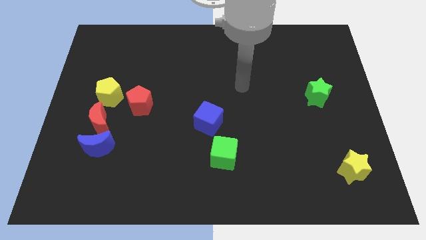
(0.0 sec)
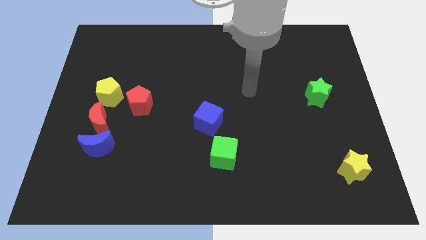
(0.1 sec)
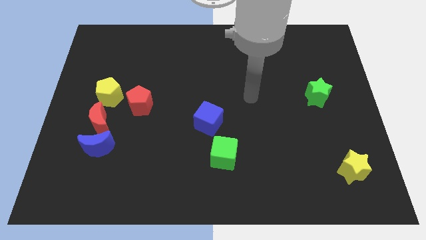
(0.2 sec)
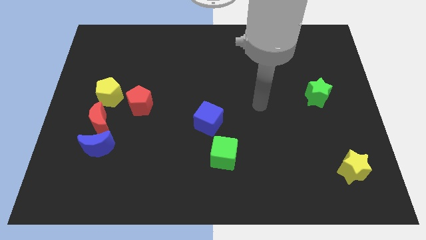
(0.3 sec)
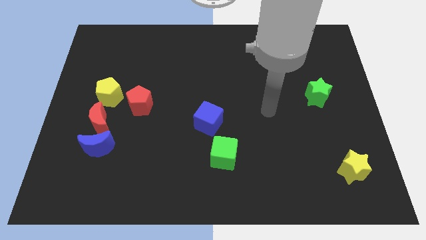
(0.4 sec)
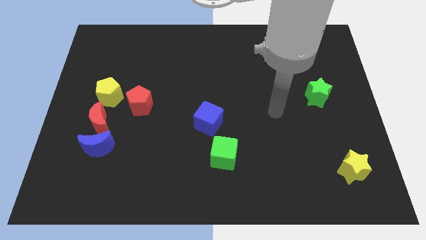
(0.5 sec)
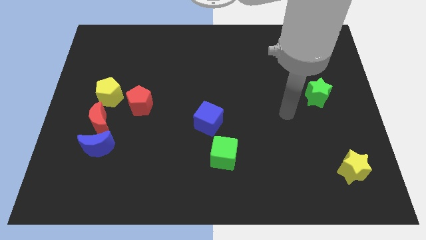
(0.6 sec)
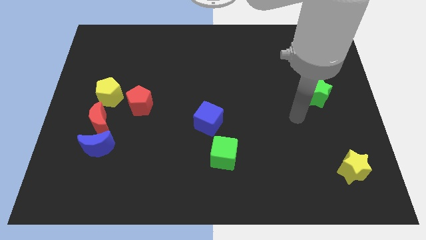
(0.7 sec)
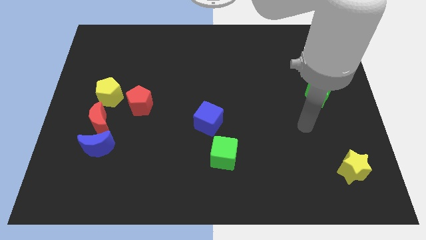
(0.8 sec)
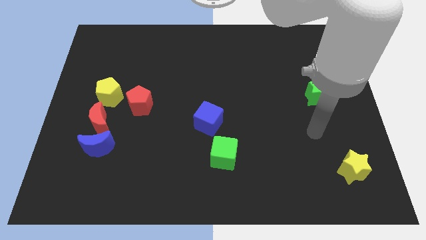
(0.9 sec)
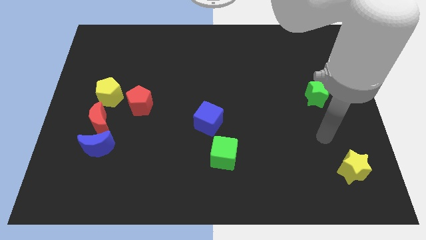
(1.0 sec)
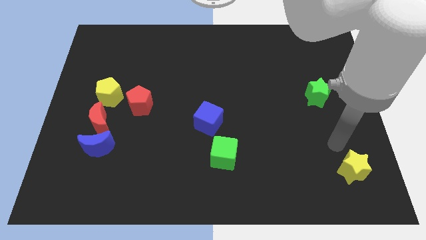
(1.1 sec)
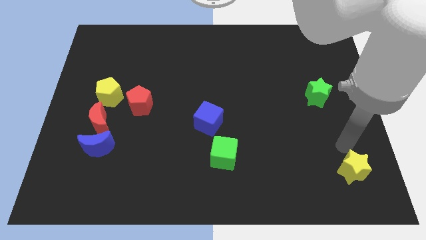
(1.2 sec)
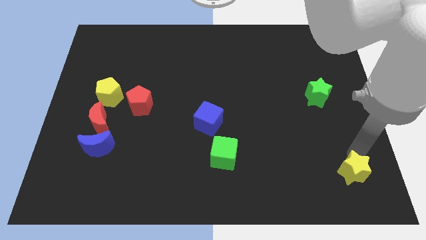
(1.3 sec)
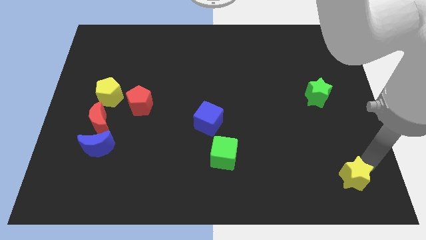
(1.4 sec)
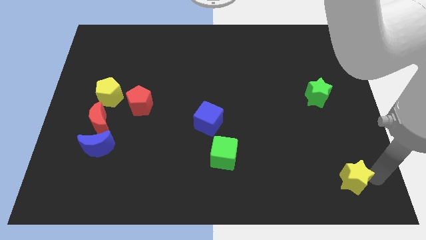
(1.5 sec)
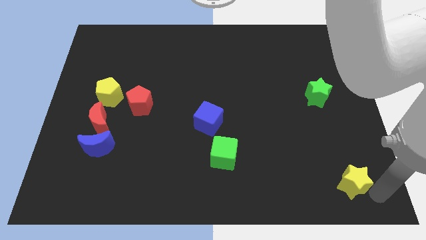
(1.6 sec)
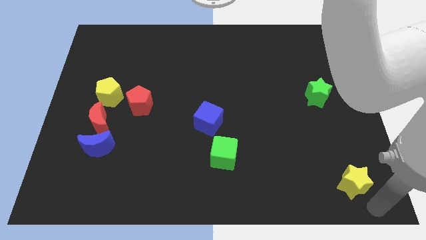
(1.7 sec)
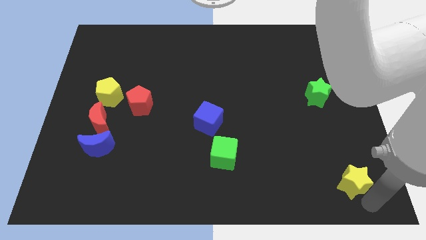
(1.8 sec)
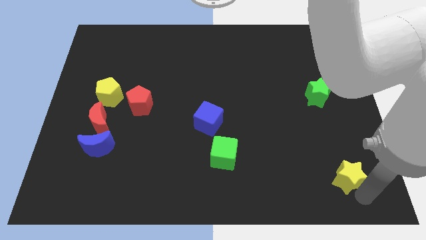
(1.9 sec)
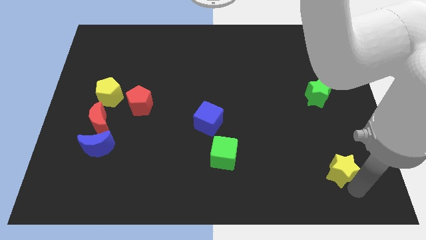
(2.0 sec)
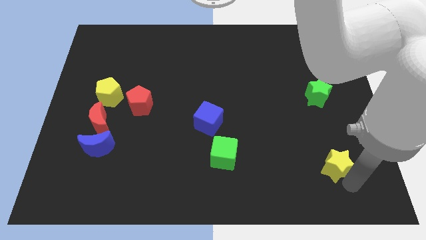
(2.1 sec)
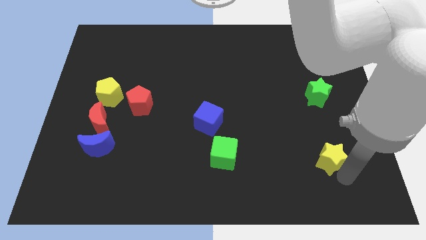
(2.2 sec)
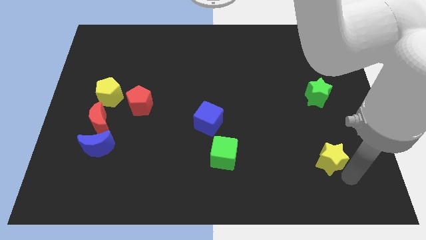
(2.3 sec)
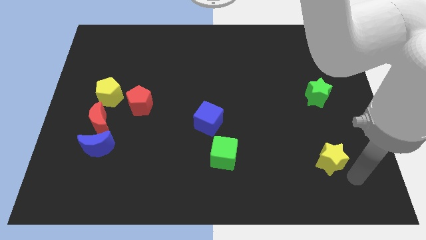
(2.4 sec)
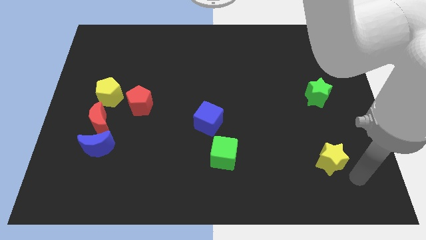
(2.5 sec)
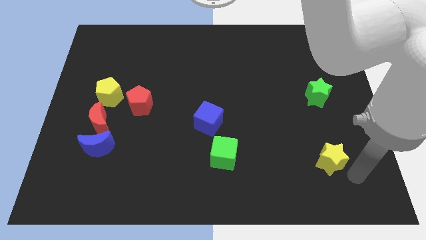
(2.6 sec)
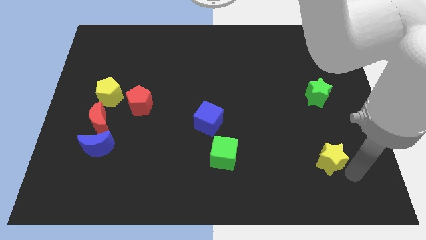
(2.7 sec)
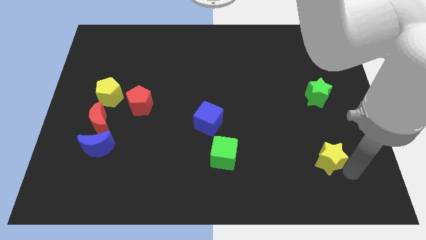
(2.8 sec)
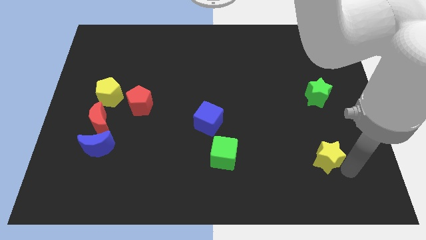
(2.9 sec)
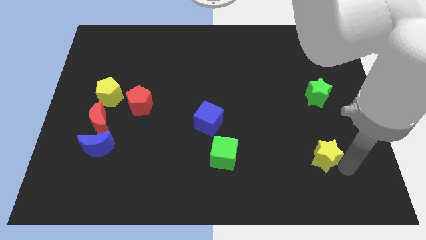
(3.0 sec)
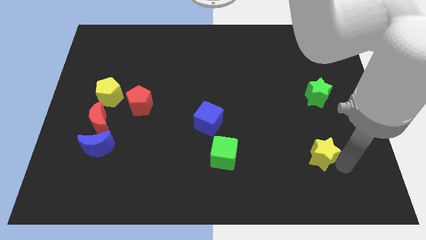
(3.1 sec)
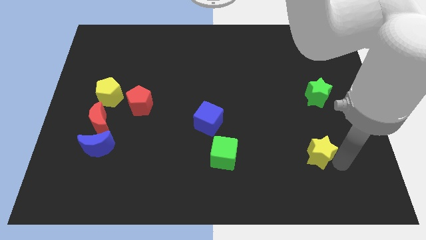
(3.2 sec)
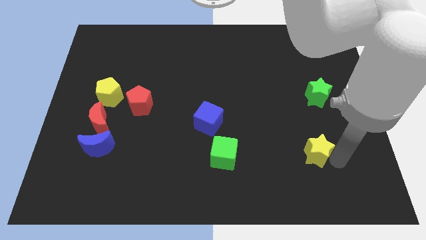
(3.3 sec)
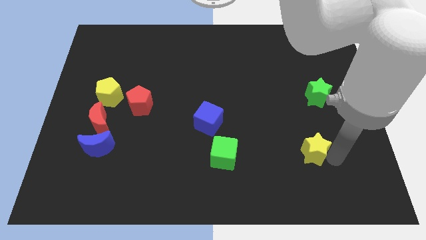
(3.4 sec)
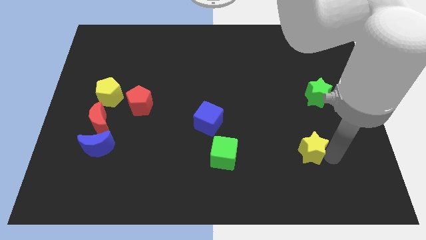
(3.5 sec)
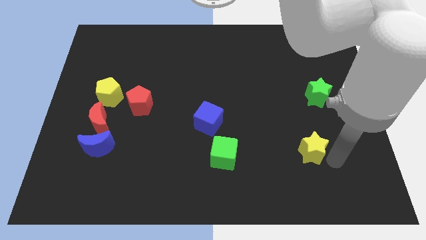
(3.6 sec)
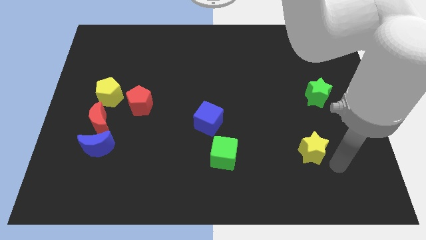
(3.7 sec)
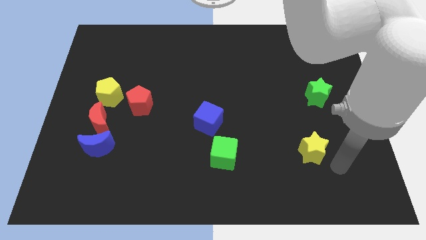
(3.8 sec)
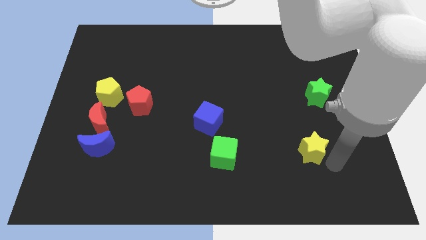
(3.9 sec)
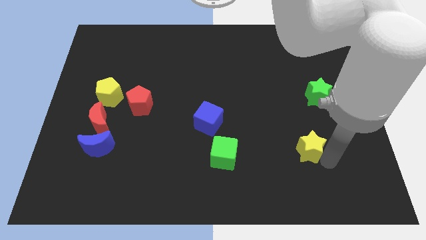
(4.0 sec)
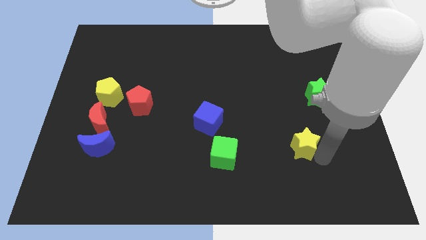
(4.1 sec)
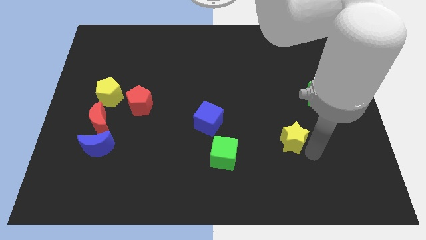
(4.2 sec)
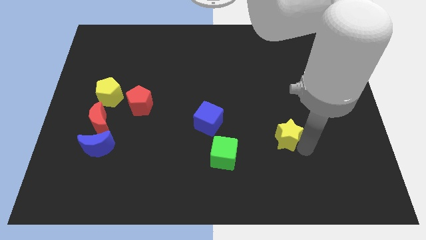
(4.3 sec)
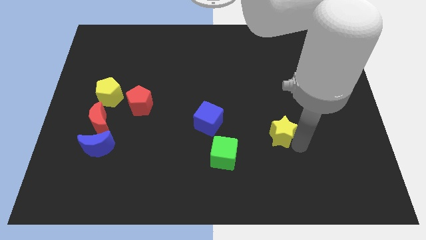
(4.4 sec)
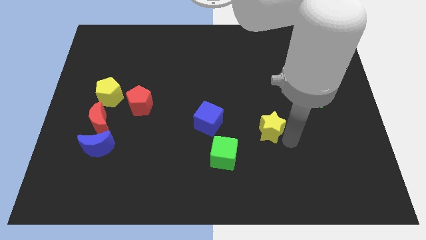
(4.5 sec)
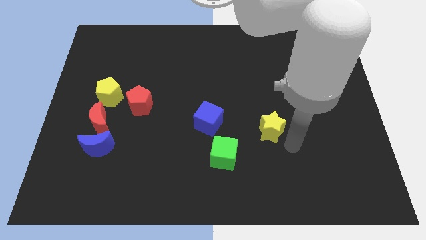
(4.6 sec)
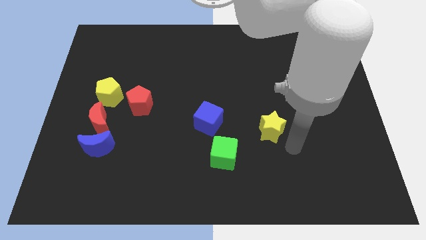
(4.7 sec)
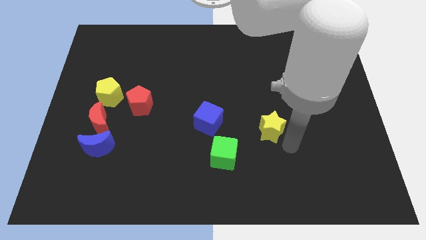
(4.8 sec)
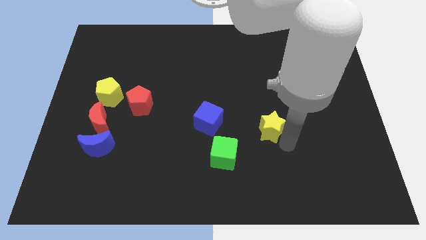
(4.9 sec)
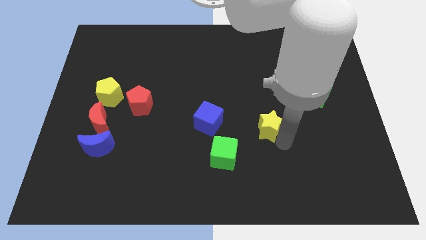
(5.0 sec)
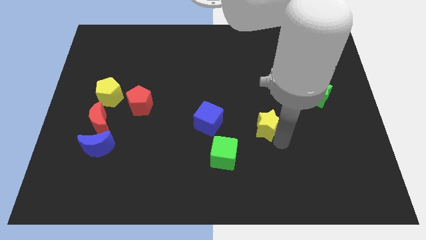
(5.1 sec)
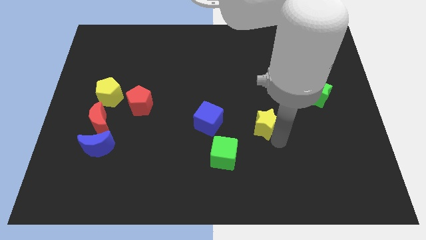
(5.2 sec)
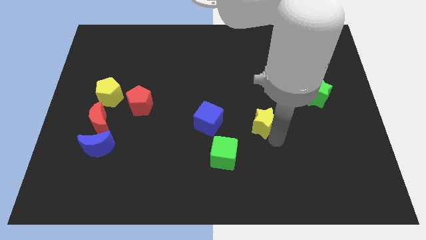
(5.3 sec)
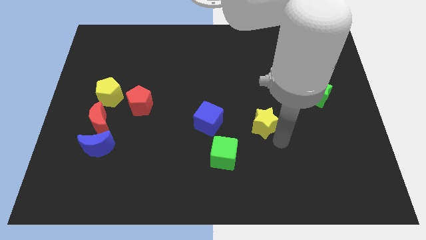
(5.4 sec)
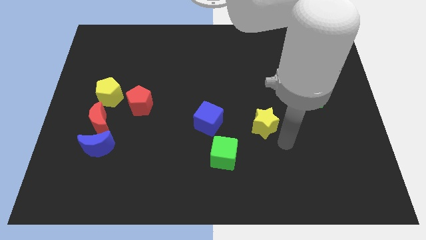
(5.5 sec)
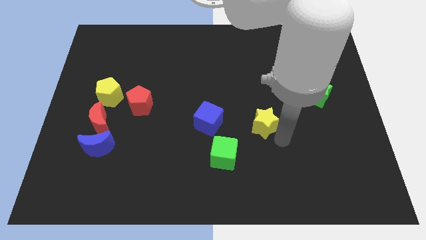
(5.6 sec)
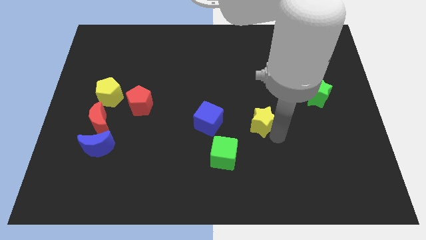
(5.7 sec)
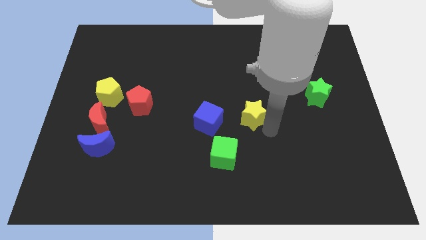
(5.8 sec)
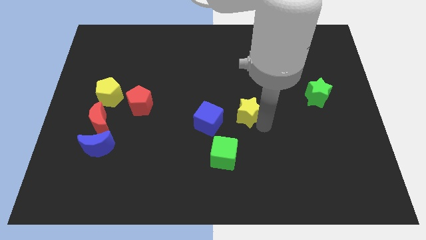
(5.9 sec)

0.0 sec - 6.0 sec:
move the yellow star to the top right of the blue cube

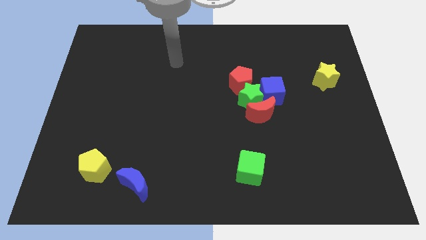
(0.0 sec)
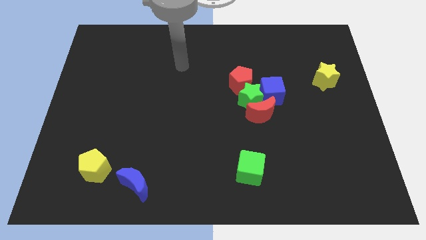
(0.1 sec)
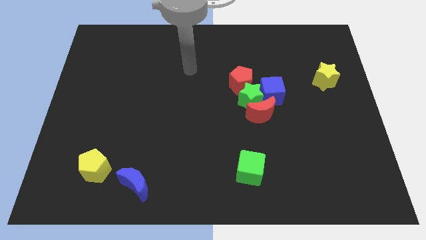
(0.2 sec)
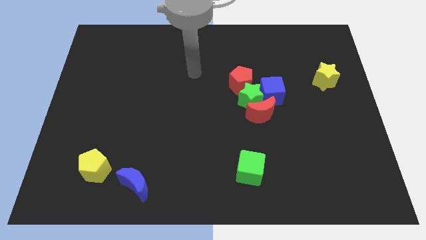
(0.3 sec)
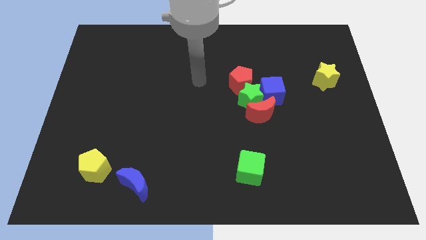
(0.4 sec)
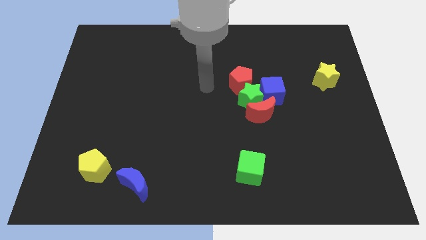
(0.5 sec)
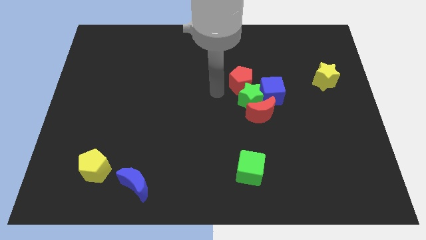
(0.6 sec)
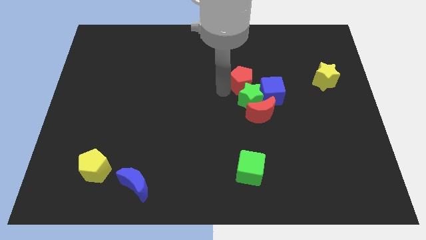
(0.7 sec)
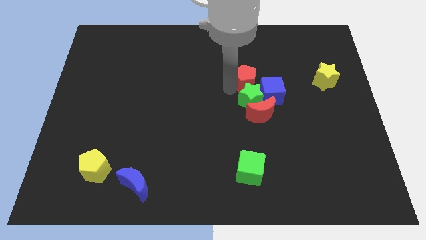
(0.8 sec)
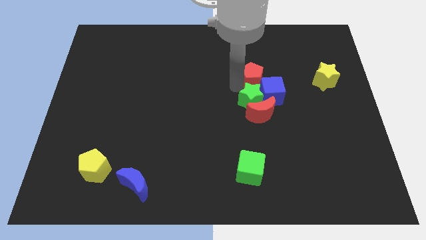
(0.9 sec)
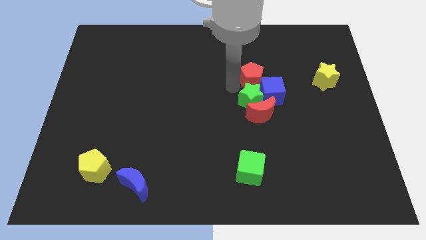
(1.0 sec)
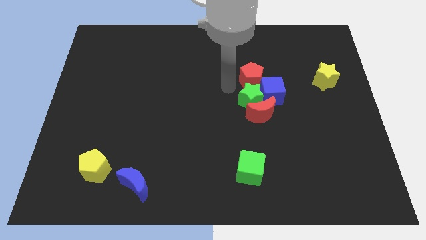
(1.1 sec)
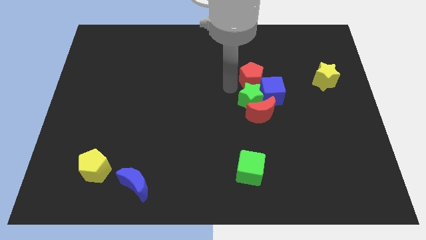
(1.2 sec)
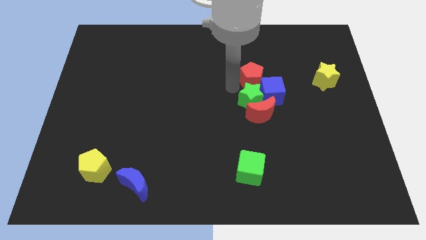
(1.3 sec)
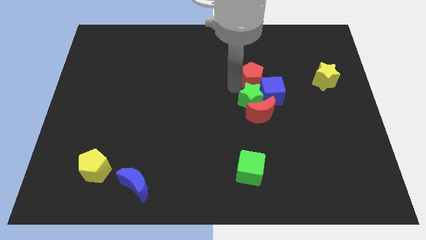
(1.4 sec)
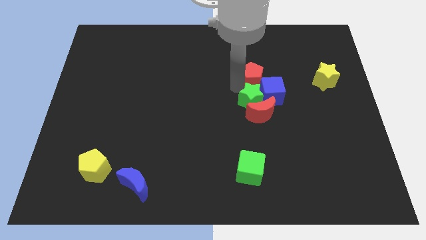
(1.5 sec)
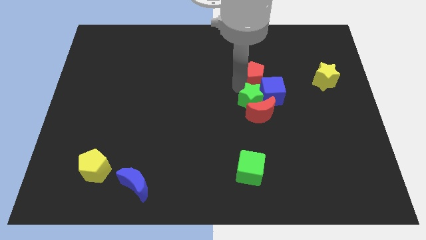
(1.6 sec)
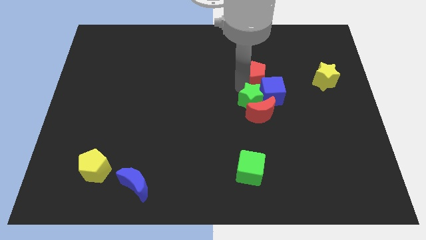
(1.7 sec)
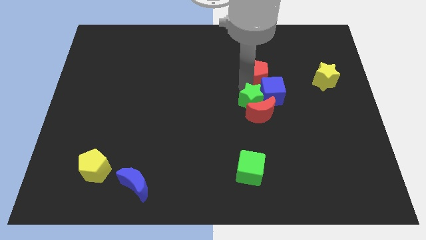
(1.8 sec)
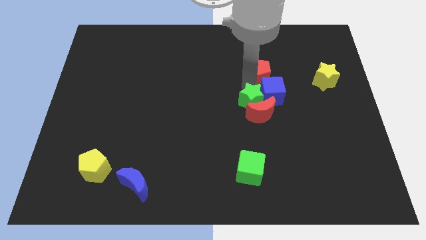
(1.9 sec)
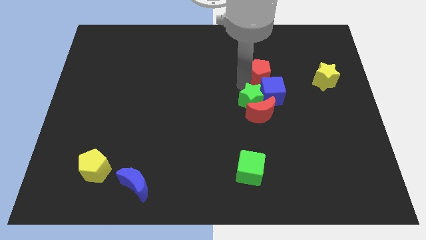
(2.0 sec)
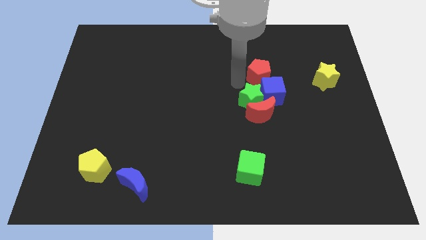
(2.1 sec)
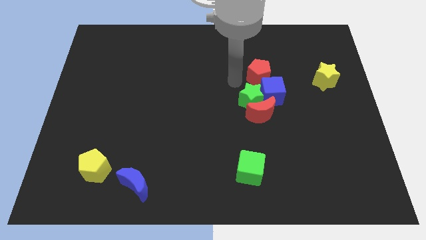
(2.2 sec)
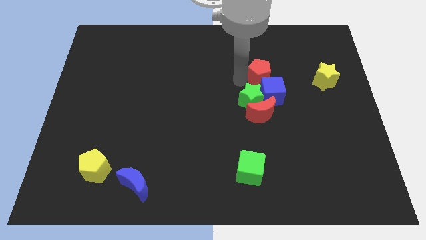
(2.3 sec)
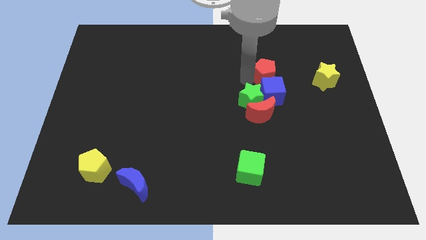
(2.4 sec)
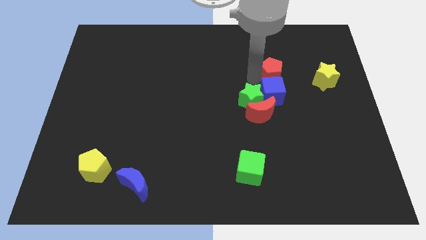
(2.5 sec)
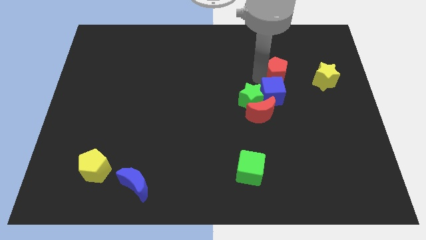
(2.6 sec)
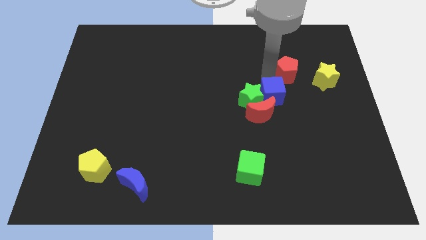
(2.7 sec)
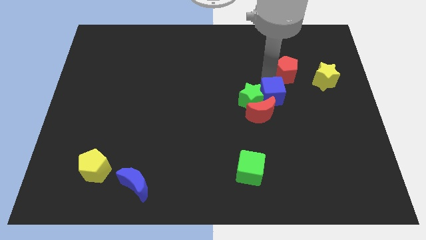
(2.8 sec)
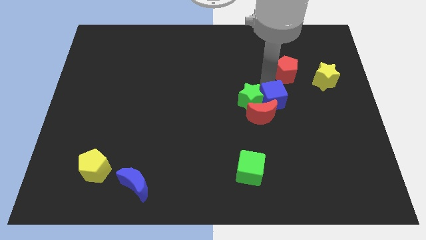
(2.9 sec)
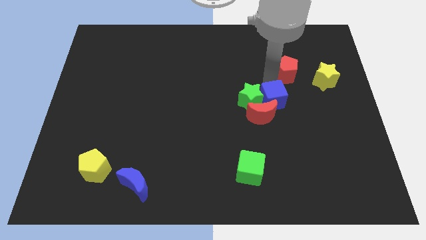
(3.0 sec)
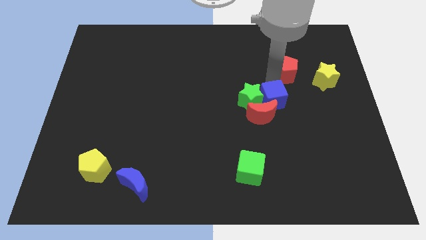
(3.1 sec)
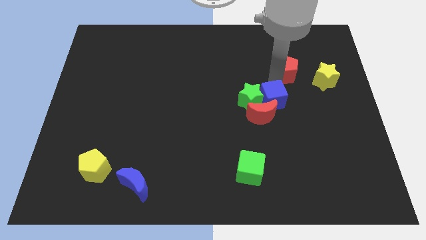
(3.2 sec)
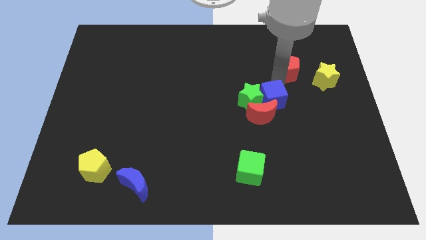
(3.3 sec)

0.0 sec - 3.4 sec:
put the red pentagon diagonally up and to the left of the yellow star
